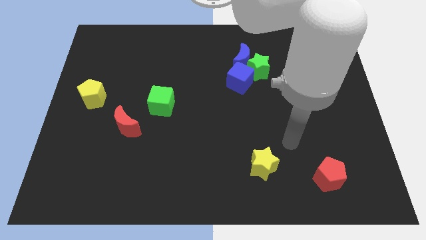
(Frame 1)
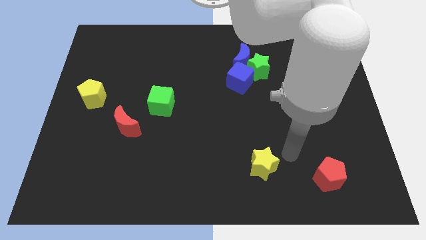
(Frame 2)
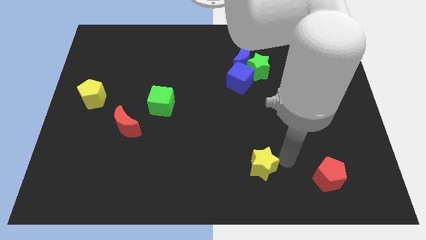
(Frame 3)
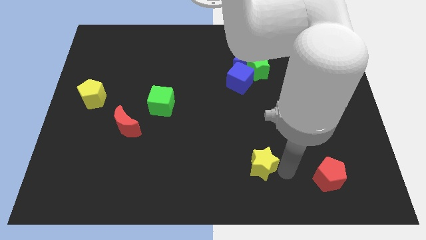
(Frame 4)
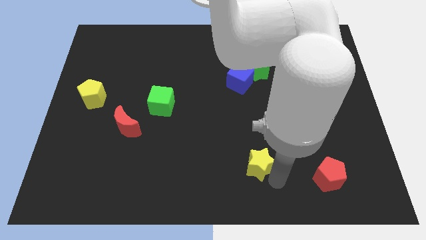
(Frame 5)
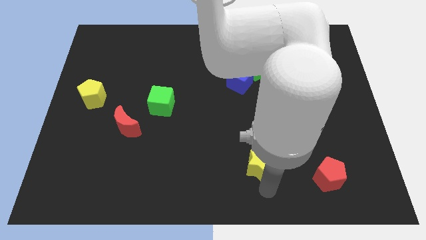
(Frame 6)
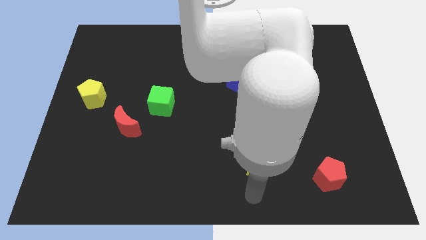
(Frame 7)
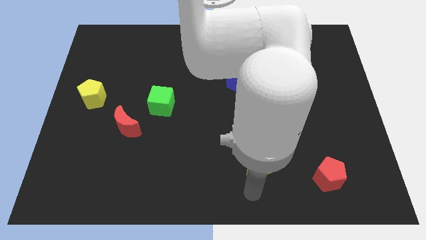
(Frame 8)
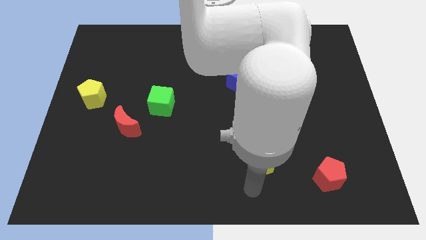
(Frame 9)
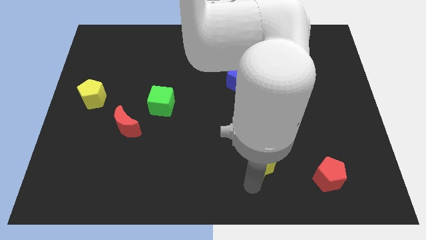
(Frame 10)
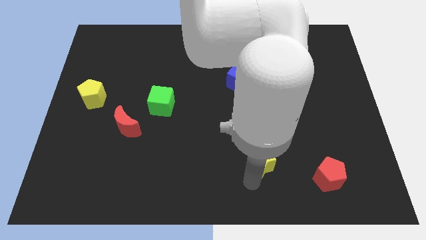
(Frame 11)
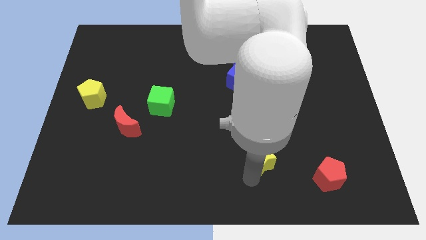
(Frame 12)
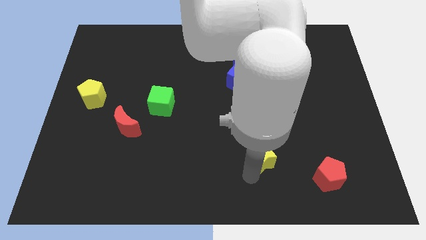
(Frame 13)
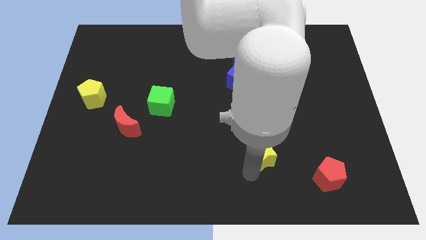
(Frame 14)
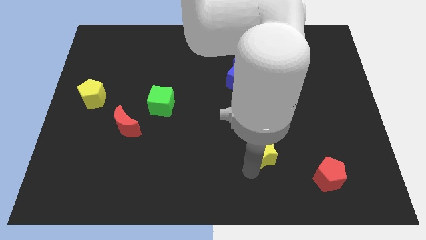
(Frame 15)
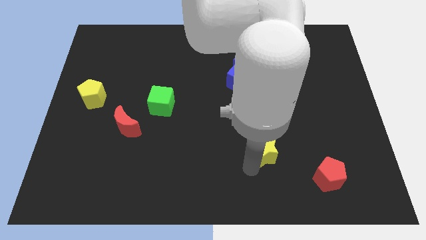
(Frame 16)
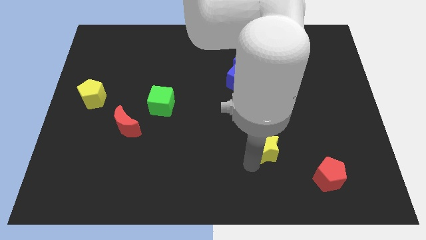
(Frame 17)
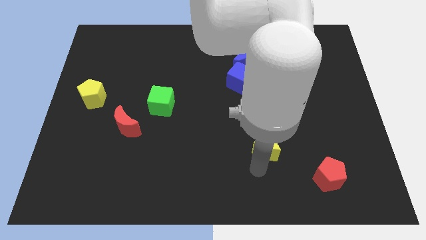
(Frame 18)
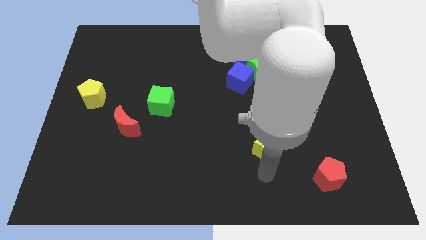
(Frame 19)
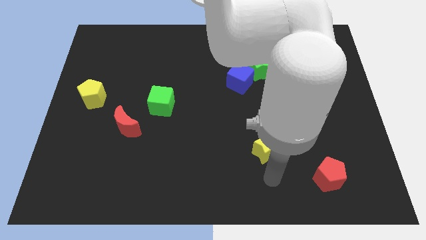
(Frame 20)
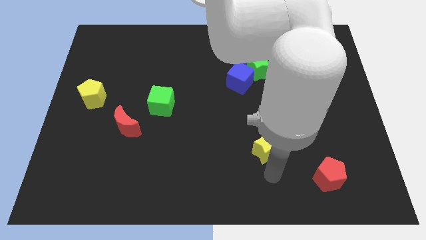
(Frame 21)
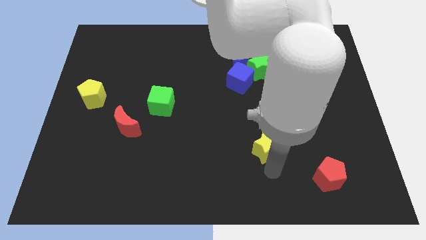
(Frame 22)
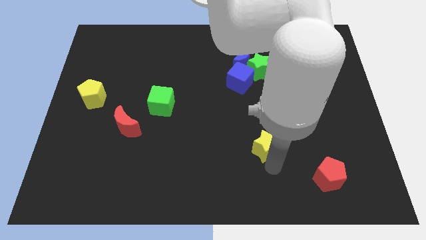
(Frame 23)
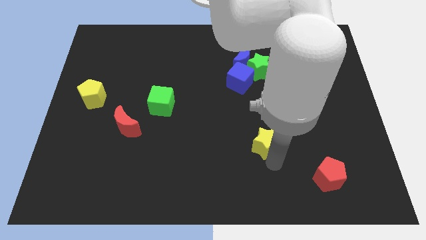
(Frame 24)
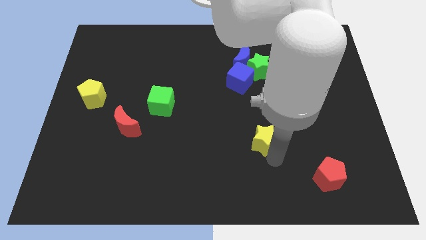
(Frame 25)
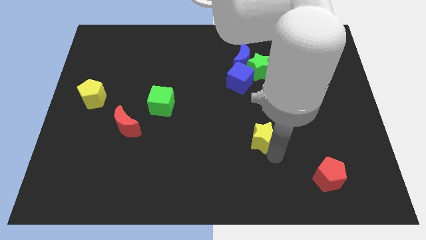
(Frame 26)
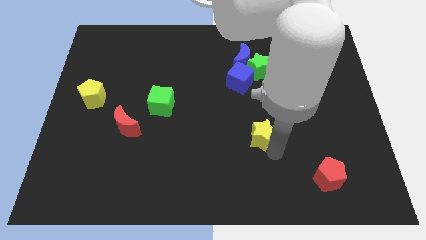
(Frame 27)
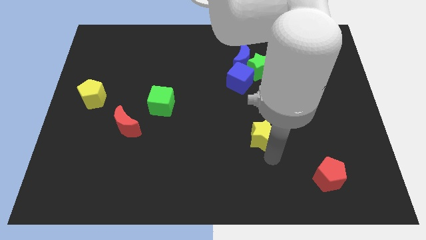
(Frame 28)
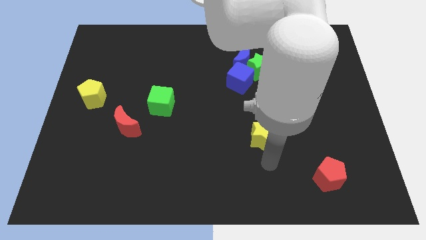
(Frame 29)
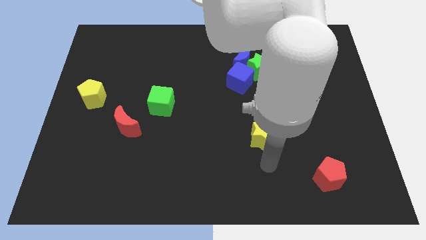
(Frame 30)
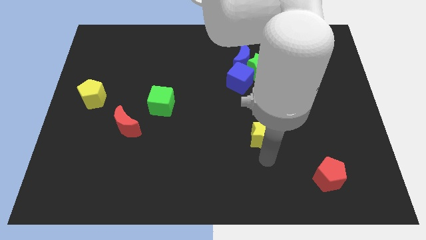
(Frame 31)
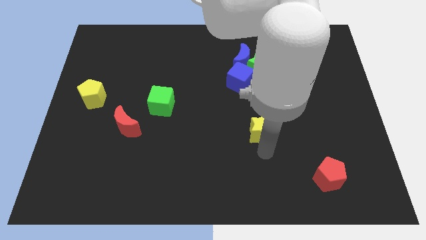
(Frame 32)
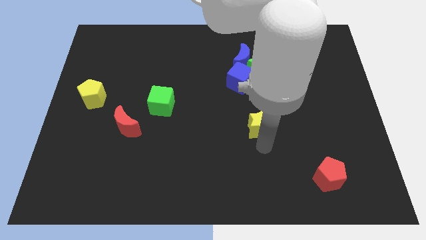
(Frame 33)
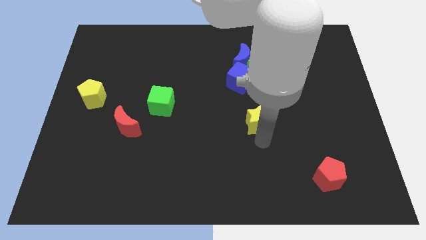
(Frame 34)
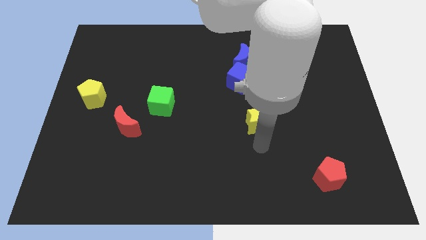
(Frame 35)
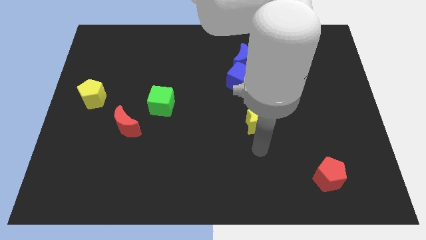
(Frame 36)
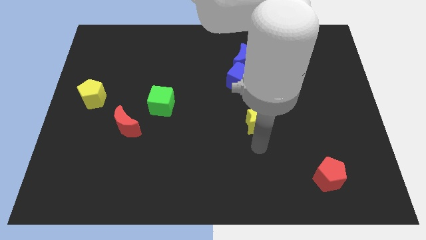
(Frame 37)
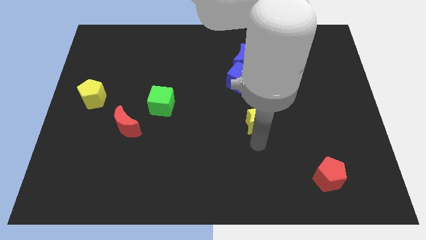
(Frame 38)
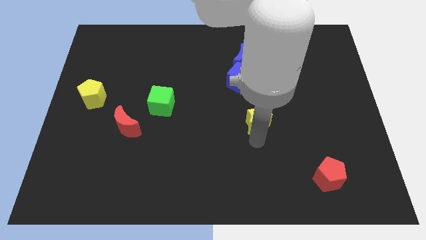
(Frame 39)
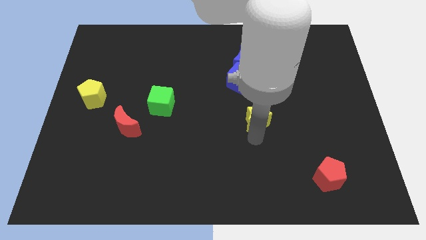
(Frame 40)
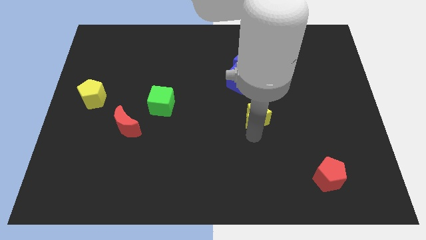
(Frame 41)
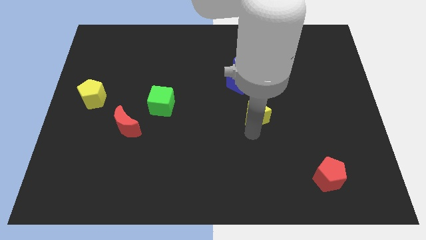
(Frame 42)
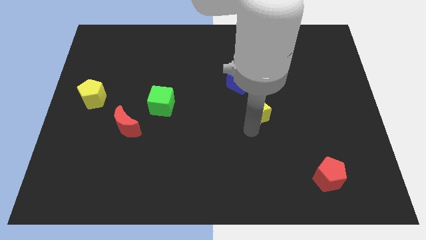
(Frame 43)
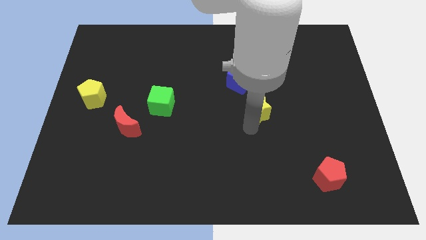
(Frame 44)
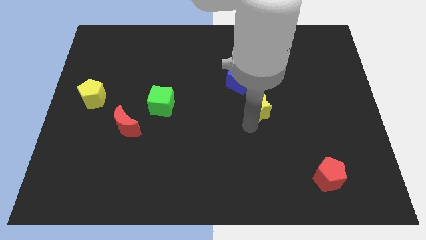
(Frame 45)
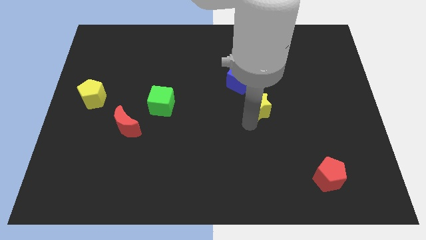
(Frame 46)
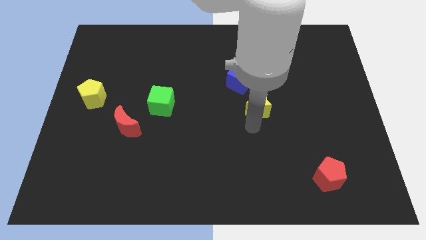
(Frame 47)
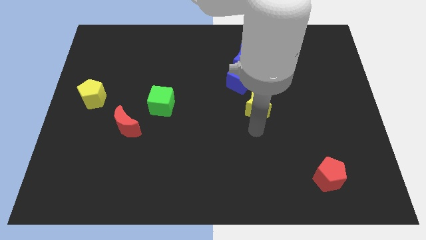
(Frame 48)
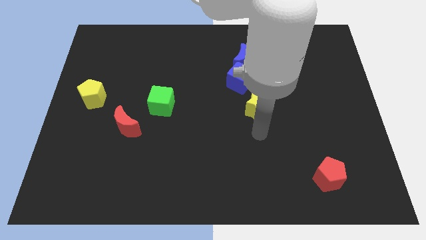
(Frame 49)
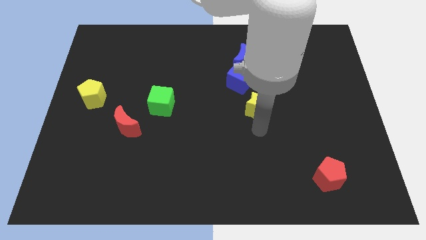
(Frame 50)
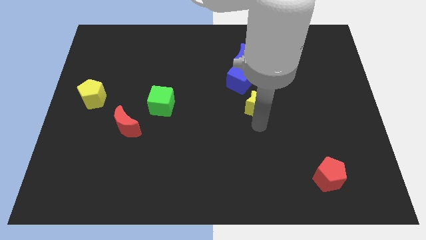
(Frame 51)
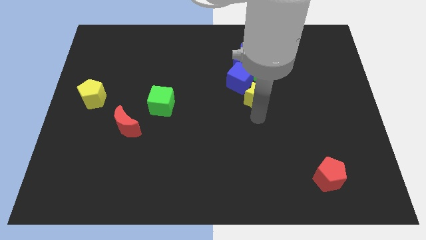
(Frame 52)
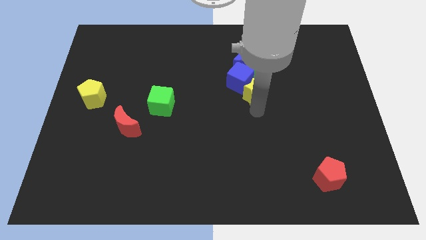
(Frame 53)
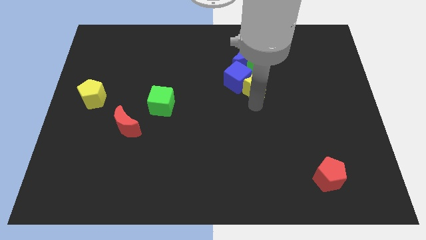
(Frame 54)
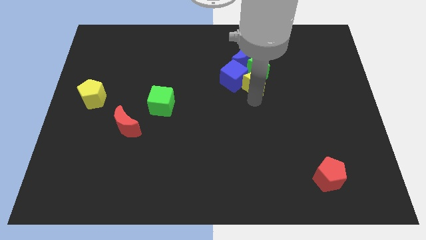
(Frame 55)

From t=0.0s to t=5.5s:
move the yellow star to the green star

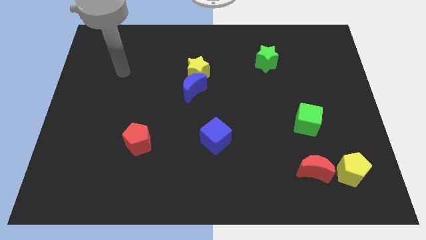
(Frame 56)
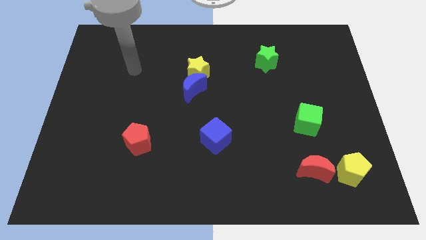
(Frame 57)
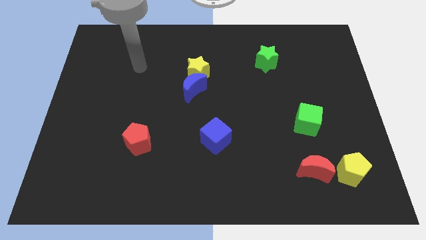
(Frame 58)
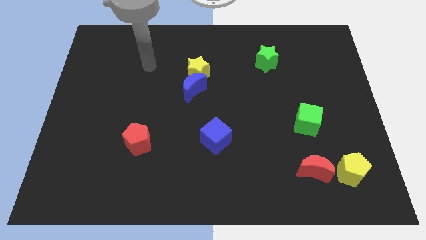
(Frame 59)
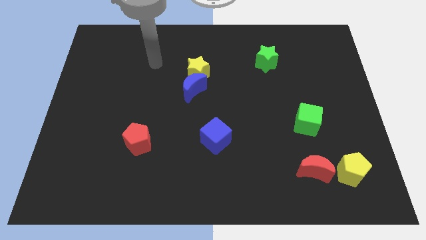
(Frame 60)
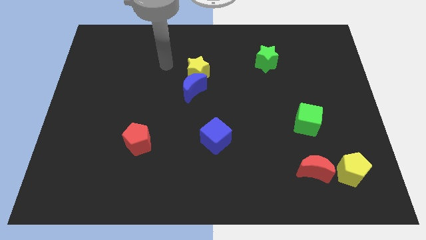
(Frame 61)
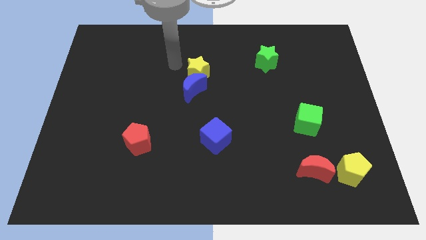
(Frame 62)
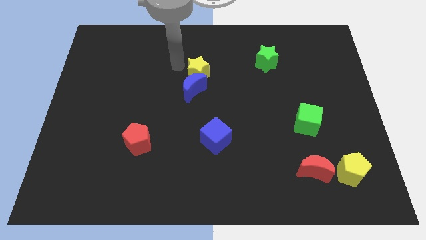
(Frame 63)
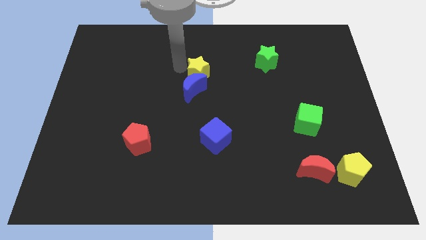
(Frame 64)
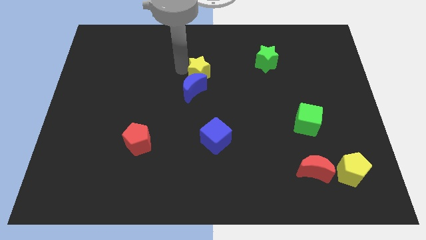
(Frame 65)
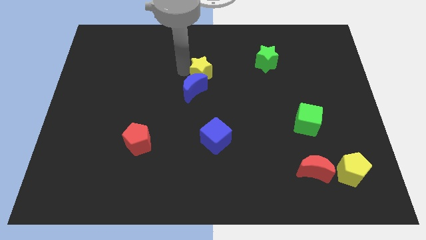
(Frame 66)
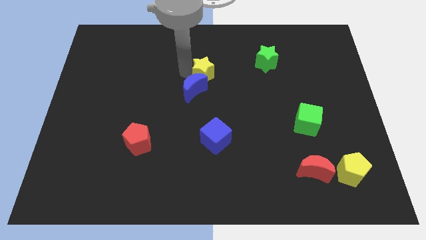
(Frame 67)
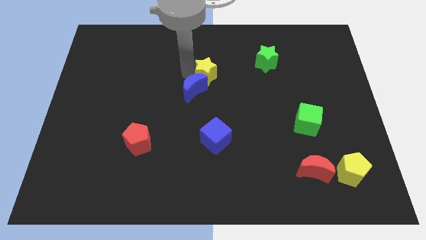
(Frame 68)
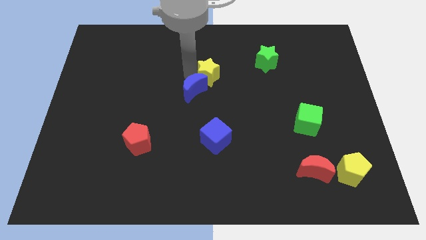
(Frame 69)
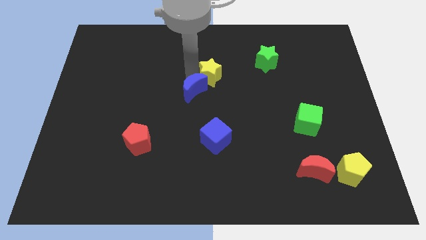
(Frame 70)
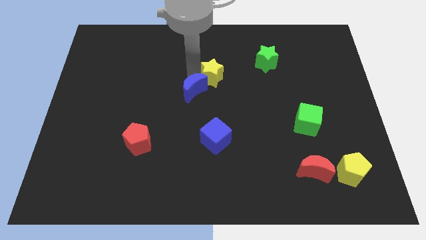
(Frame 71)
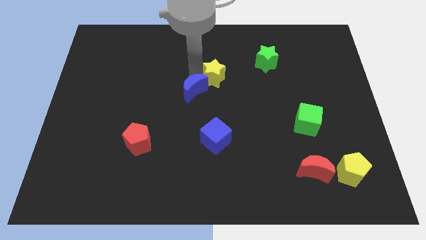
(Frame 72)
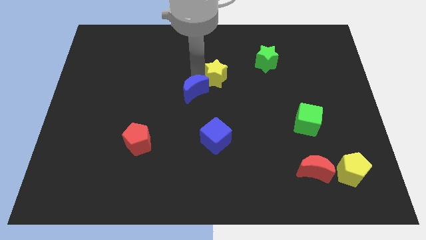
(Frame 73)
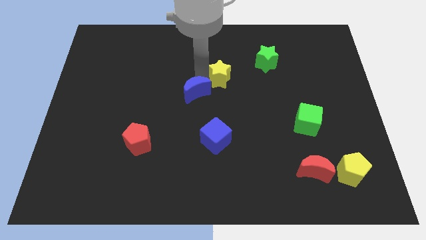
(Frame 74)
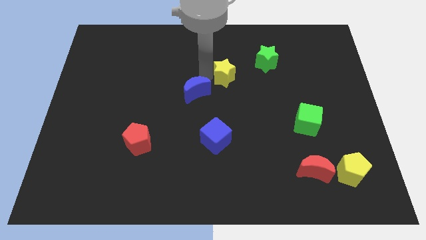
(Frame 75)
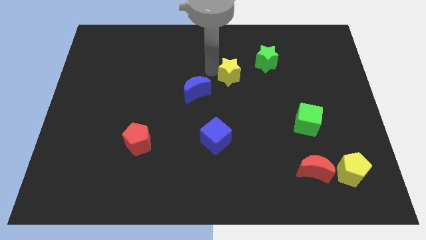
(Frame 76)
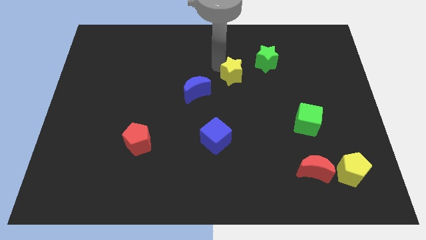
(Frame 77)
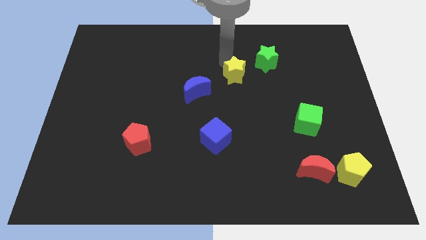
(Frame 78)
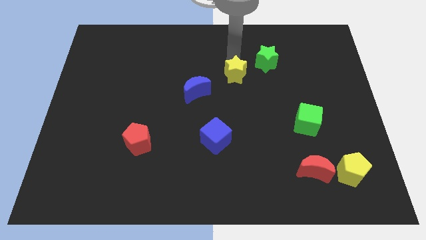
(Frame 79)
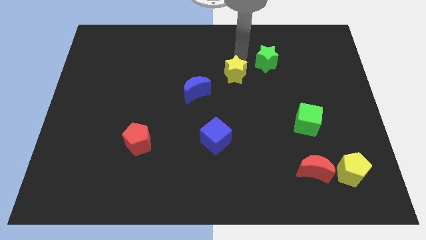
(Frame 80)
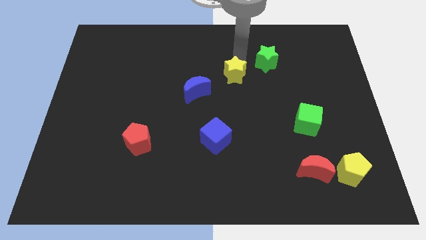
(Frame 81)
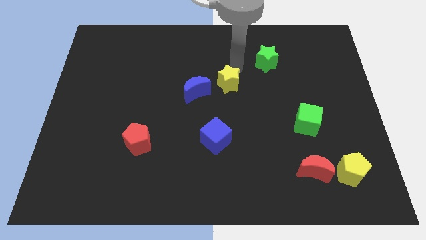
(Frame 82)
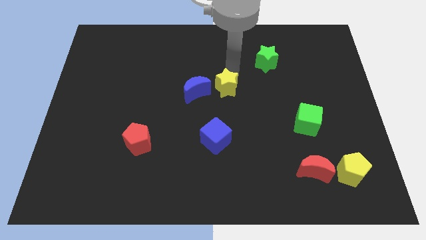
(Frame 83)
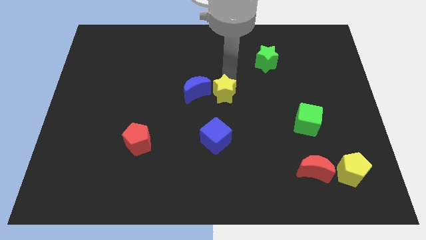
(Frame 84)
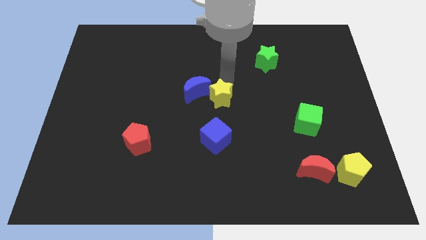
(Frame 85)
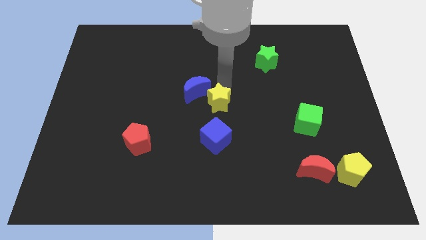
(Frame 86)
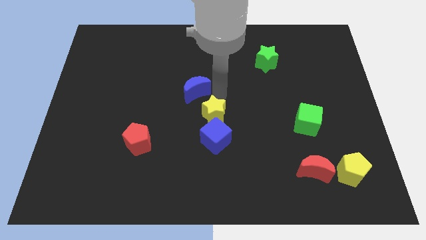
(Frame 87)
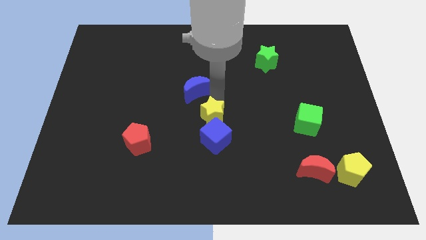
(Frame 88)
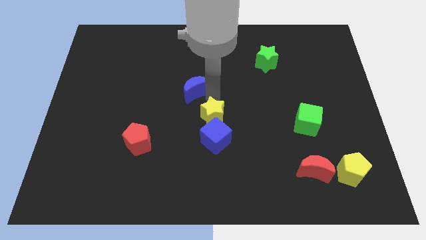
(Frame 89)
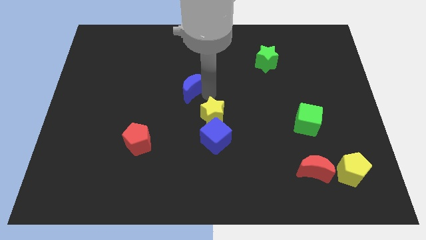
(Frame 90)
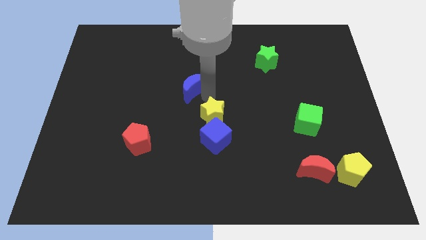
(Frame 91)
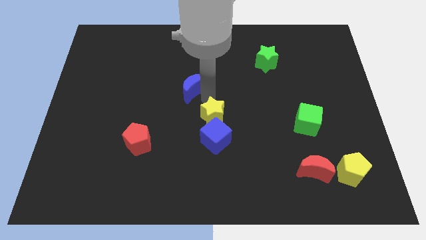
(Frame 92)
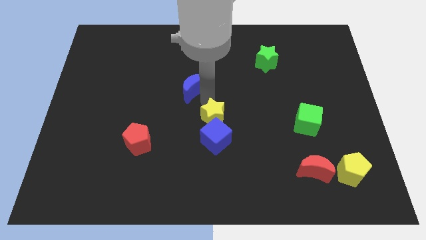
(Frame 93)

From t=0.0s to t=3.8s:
move the yellow star next to the blue cube
